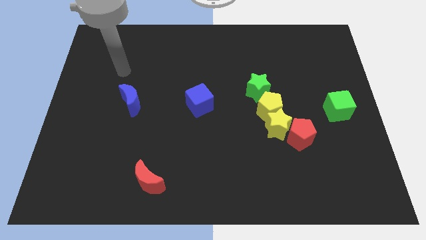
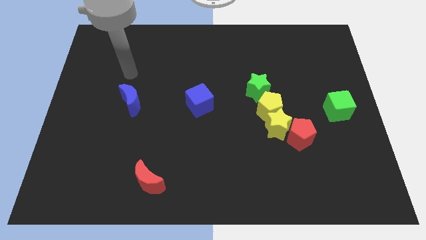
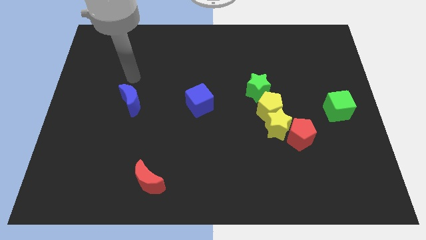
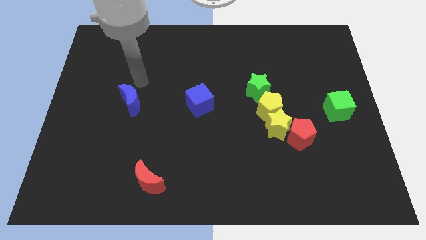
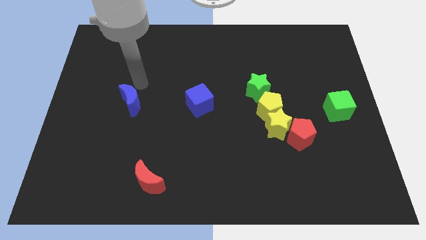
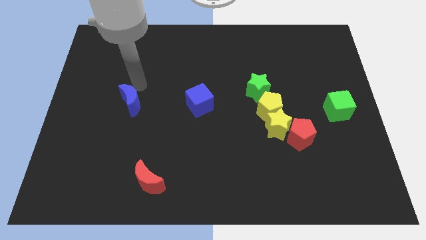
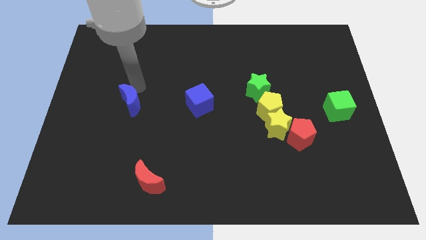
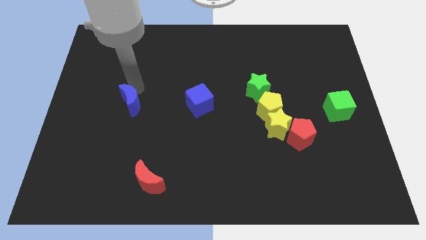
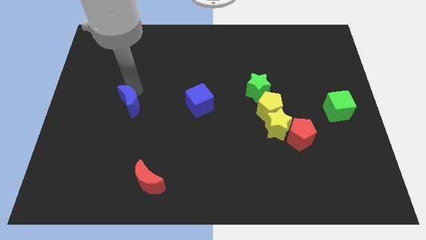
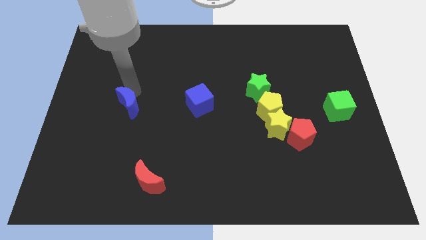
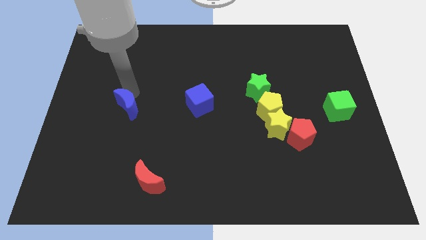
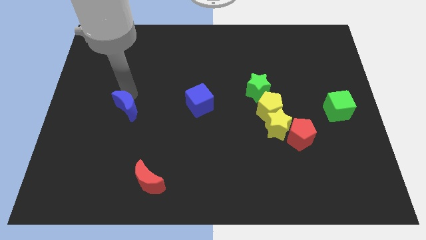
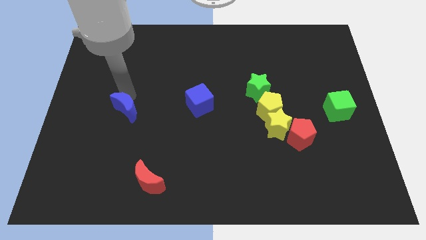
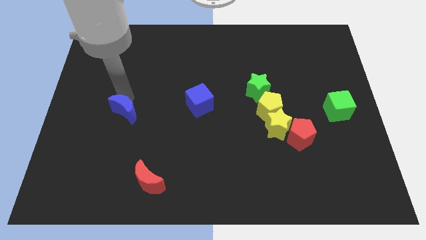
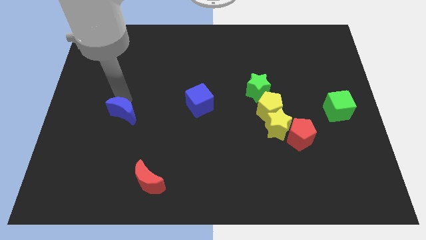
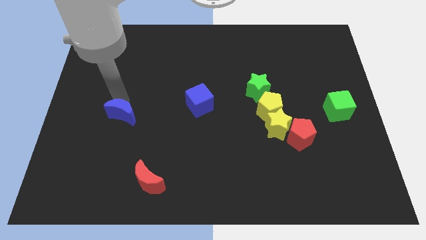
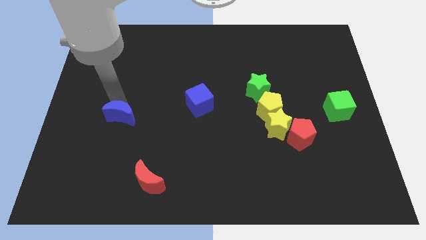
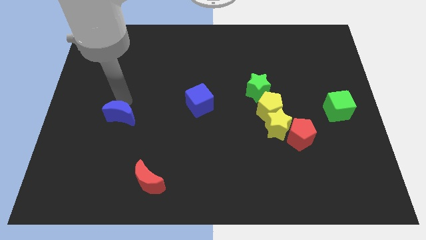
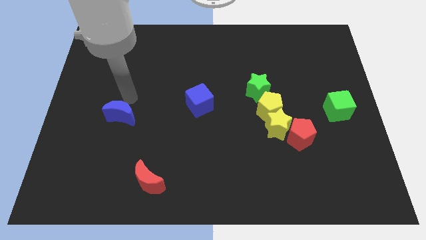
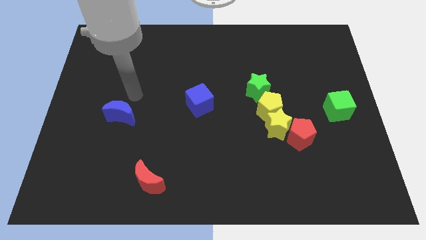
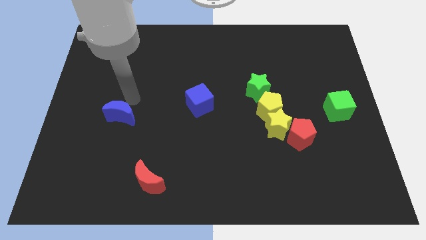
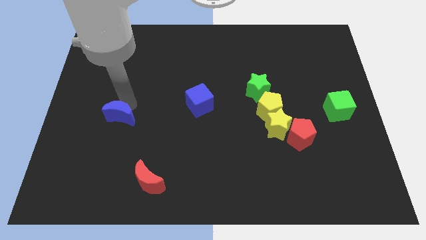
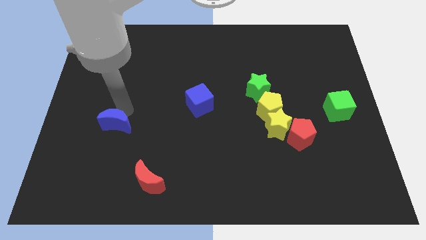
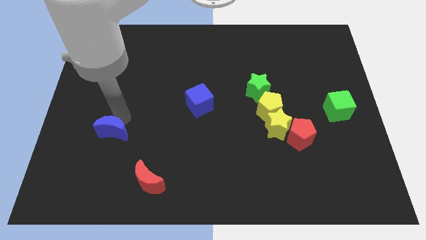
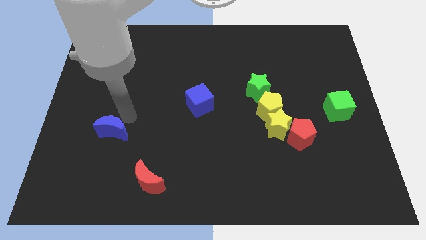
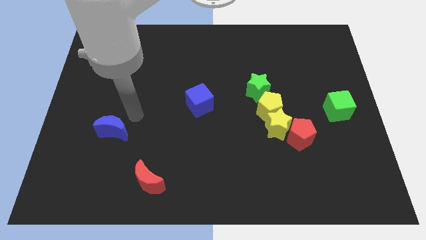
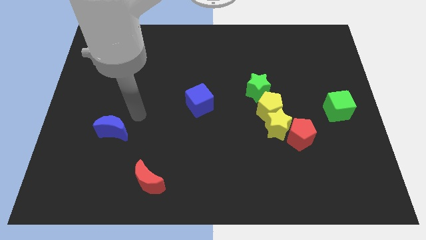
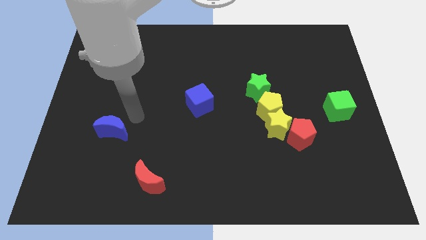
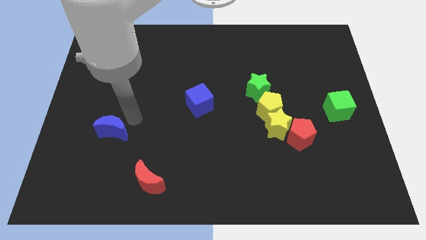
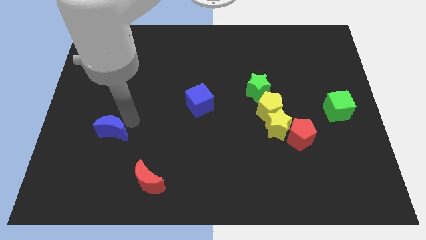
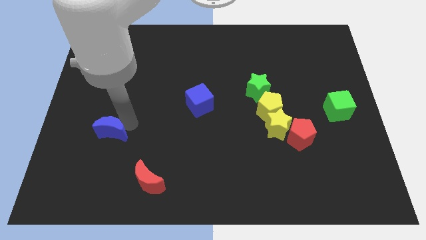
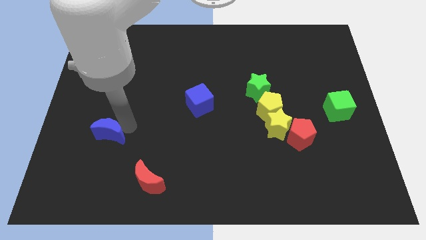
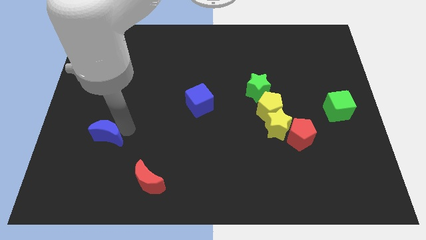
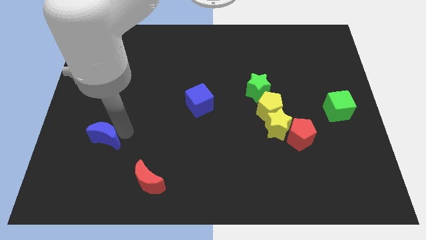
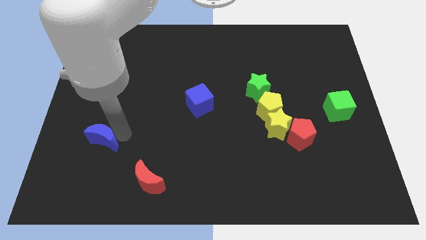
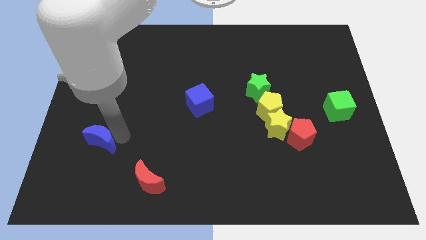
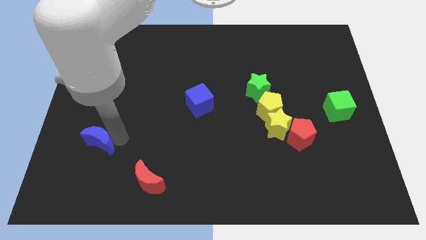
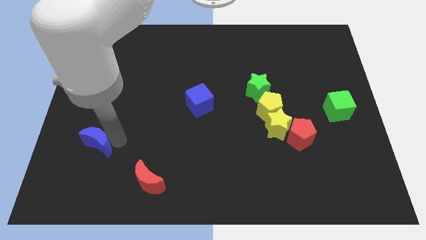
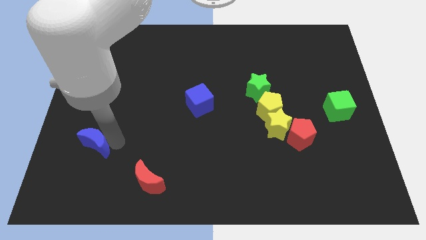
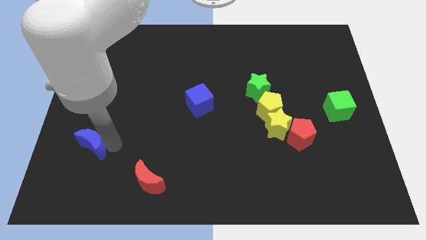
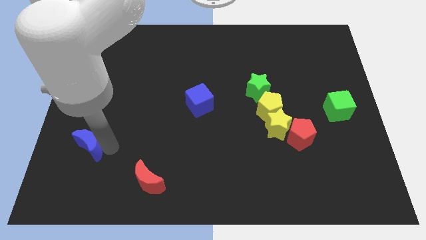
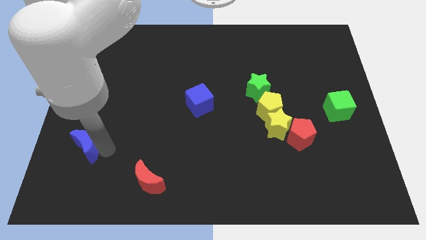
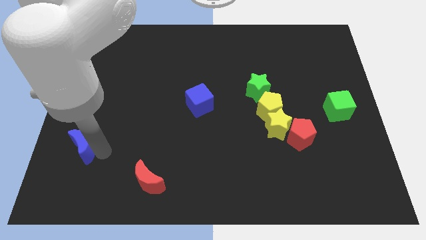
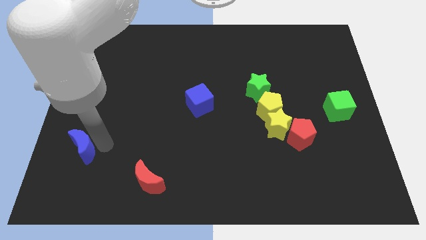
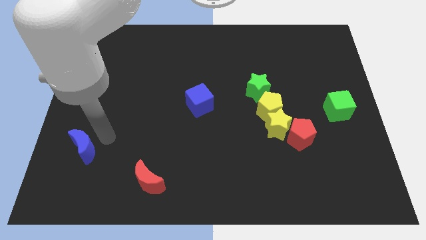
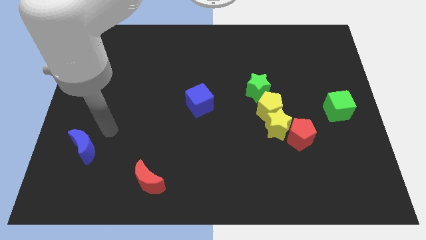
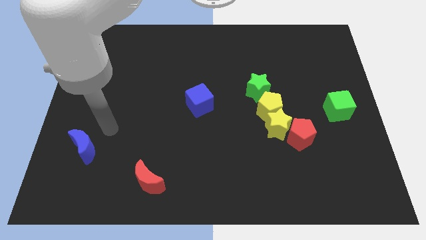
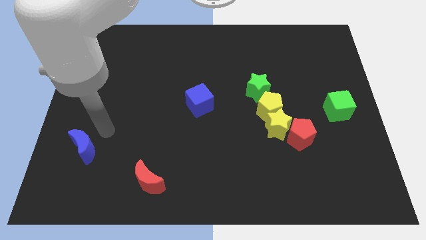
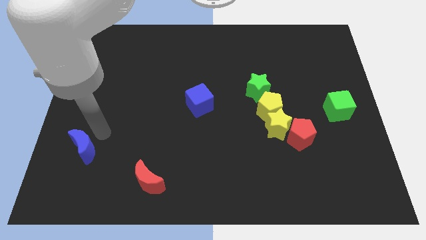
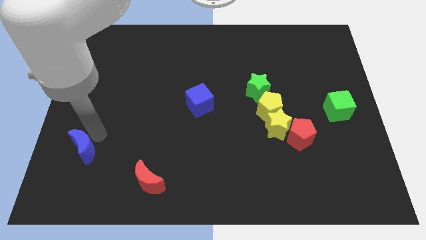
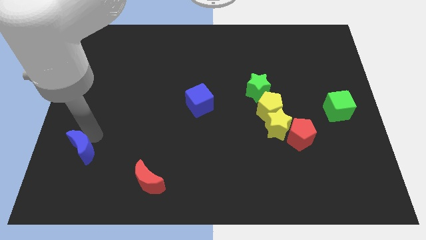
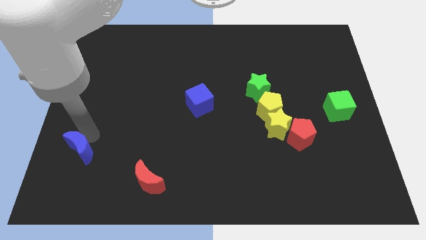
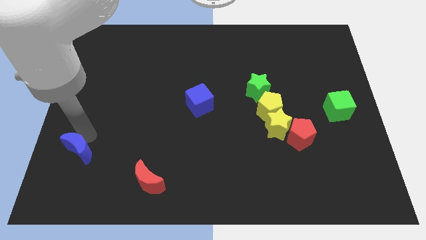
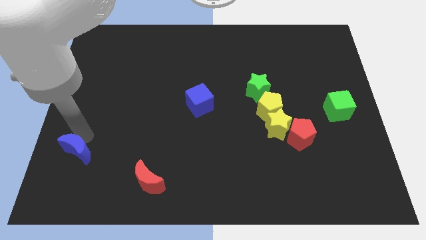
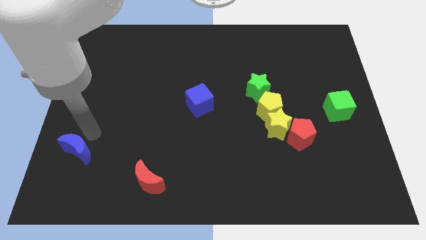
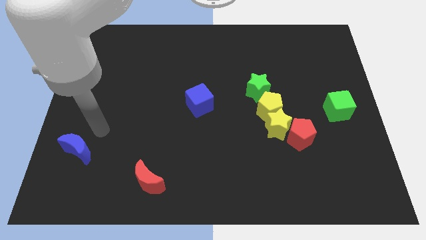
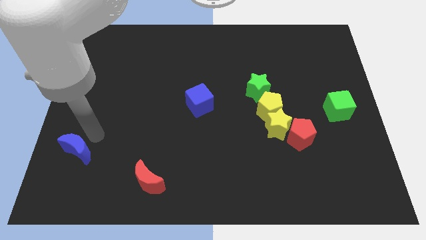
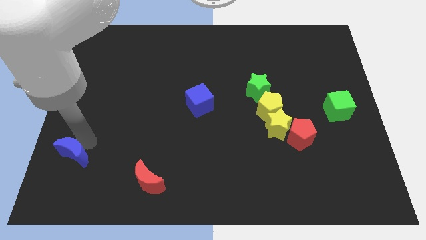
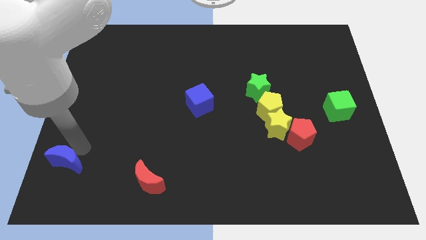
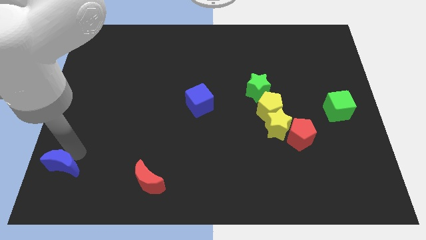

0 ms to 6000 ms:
put the blue moon to the bottom left corner

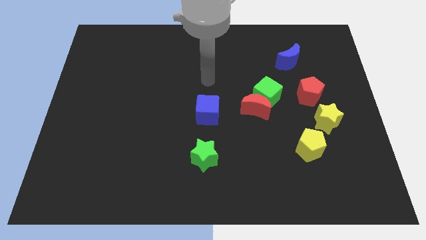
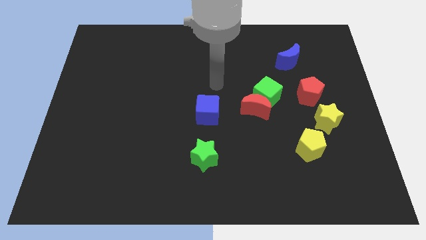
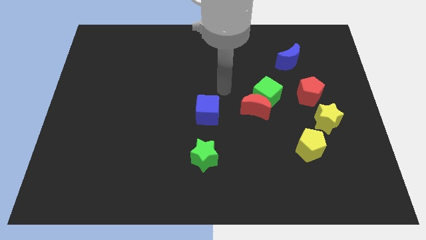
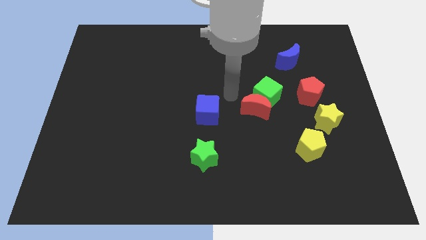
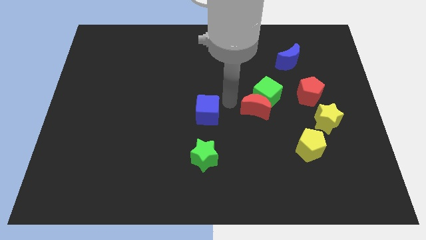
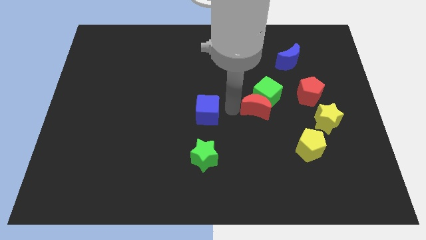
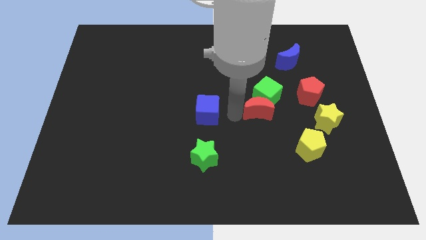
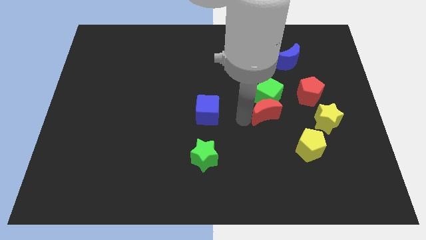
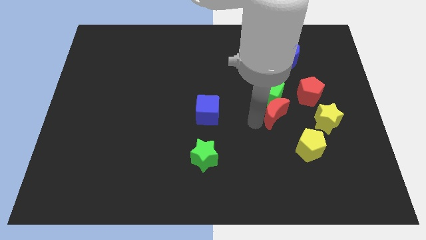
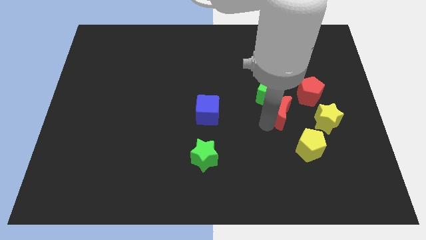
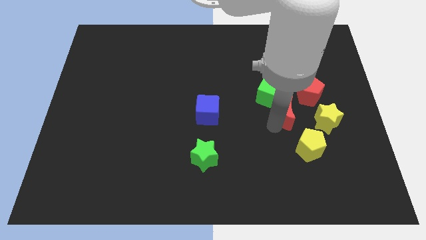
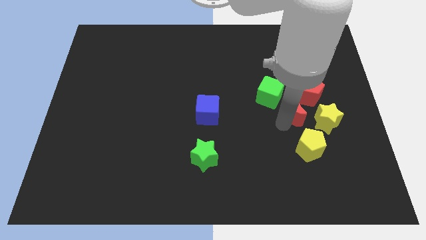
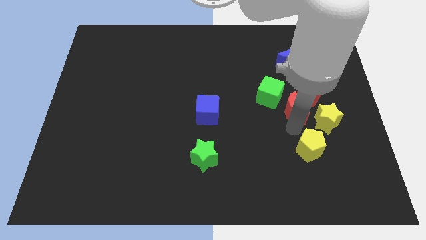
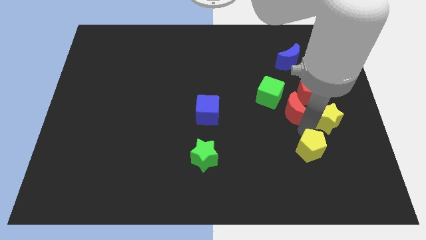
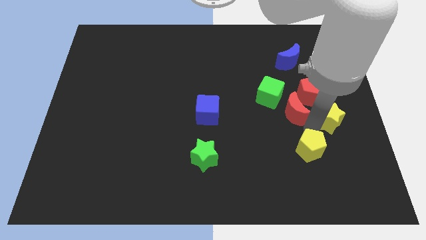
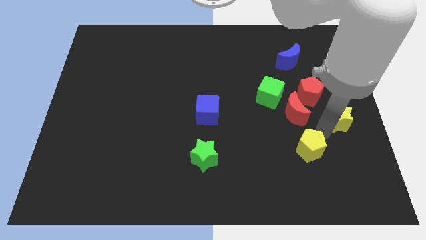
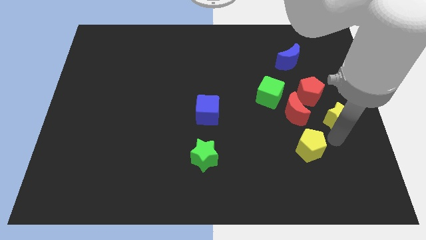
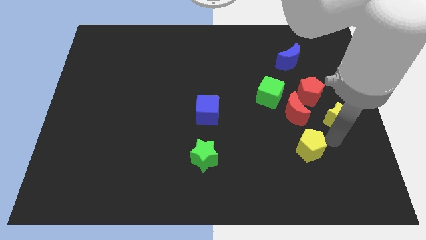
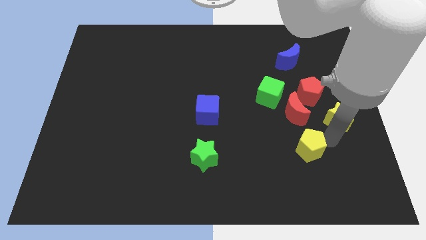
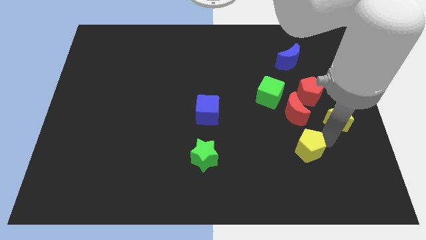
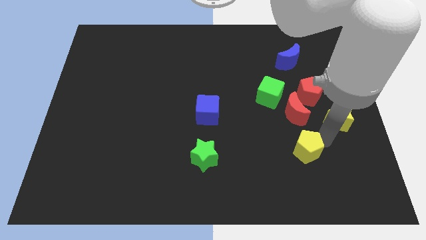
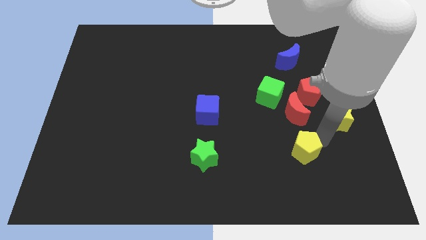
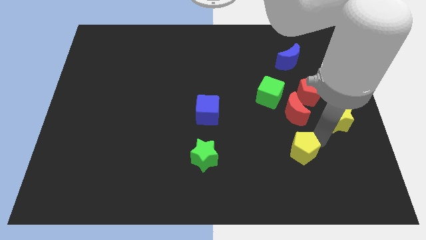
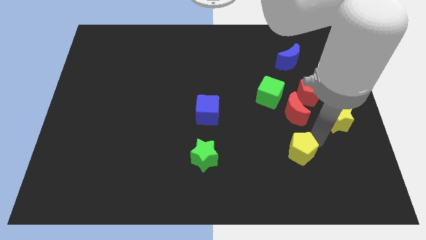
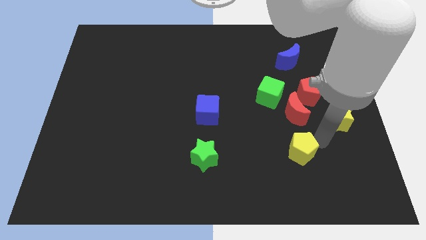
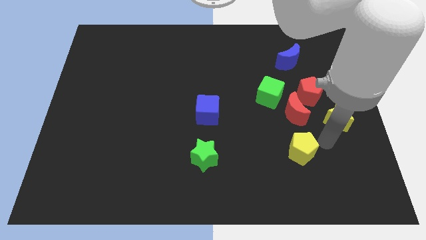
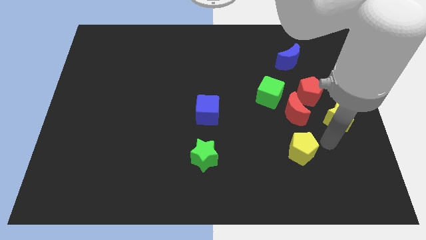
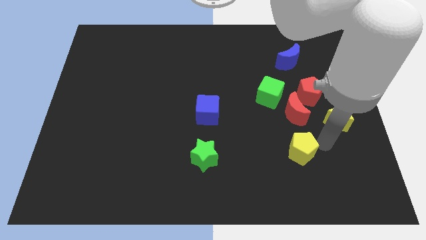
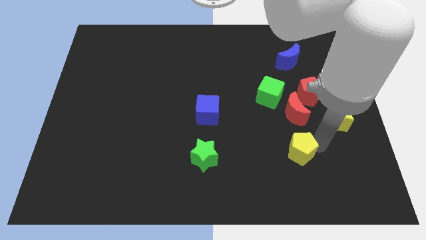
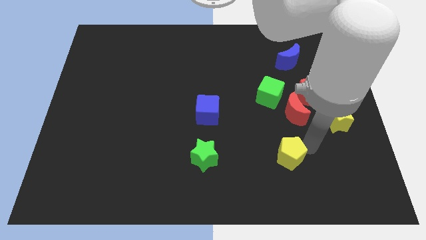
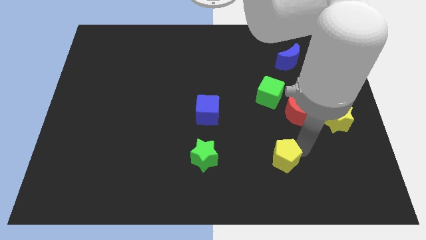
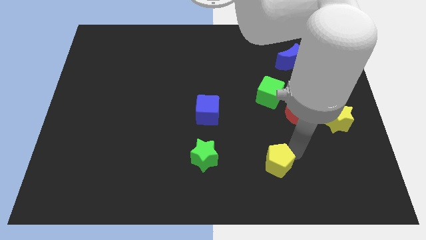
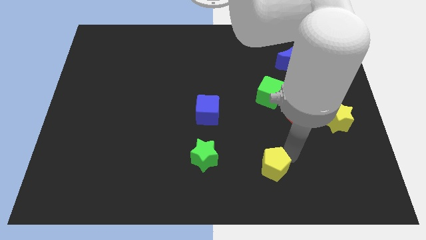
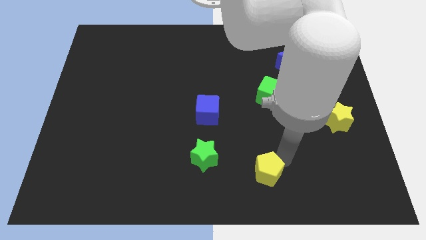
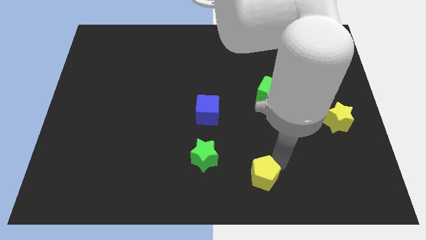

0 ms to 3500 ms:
push the yellow pentagon to the bottom
